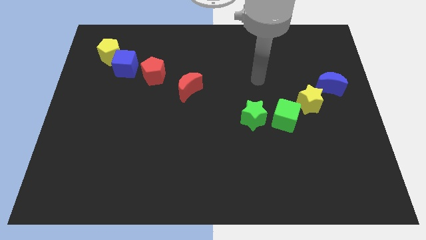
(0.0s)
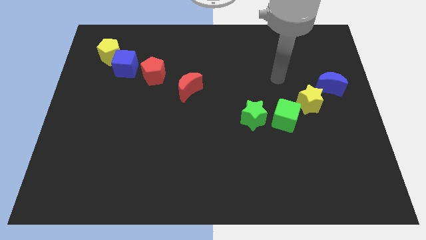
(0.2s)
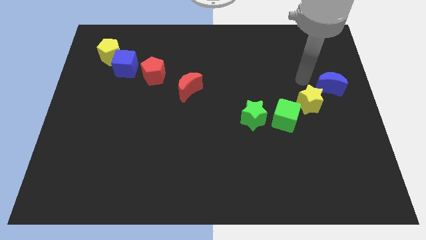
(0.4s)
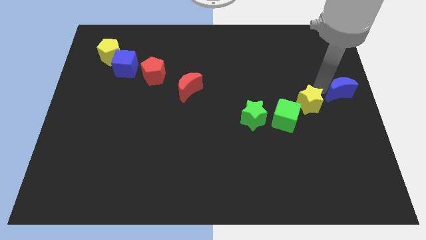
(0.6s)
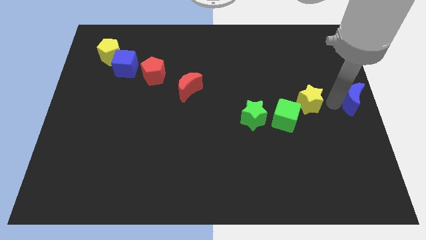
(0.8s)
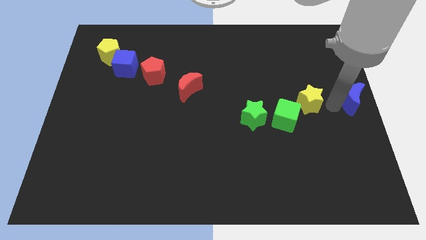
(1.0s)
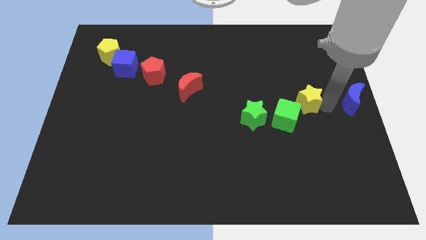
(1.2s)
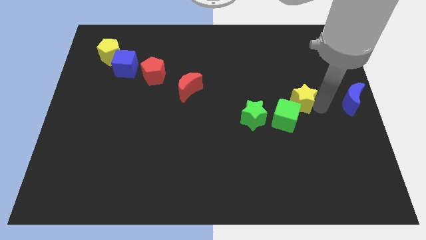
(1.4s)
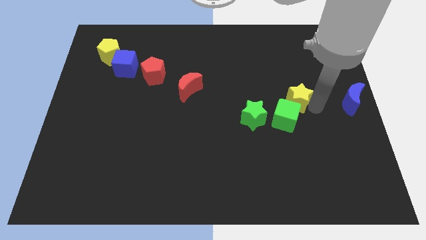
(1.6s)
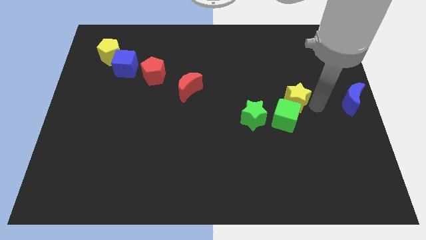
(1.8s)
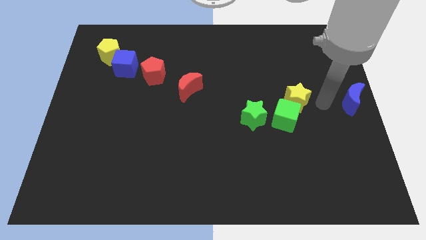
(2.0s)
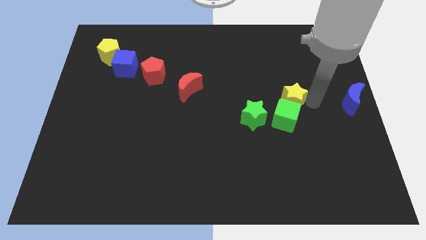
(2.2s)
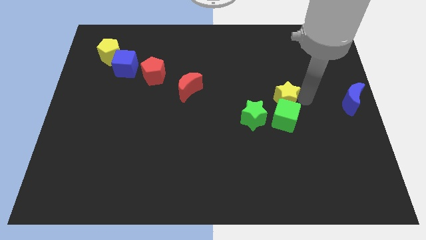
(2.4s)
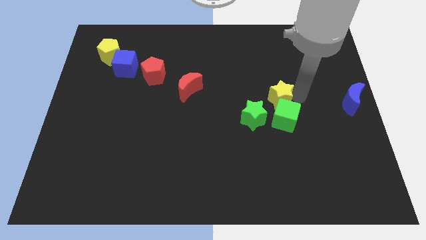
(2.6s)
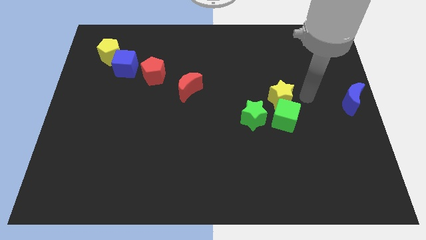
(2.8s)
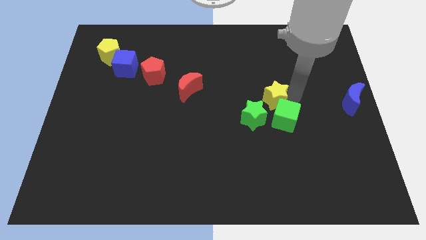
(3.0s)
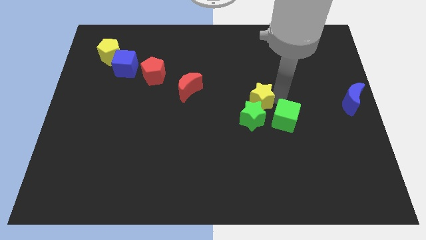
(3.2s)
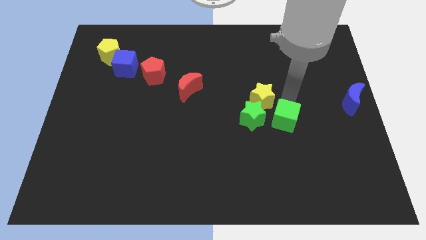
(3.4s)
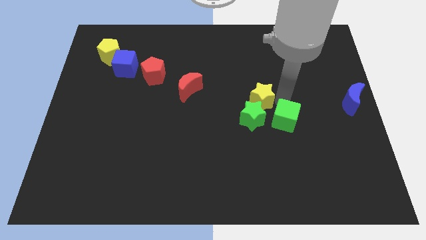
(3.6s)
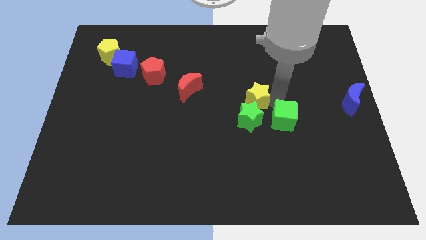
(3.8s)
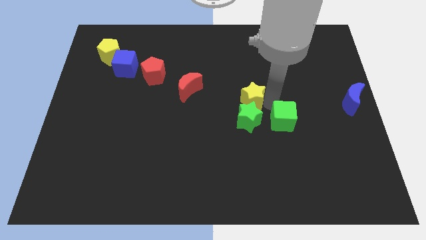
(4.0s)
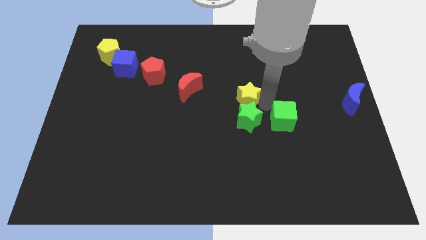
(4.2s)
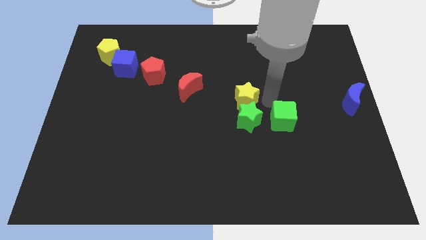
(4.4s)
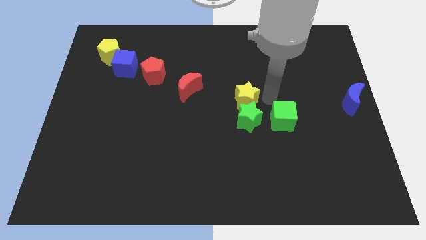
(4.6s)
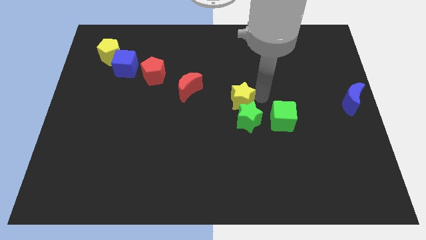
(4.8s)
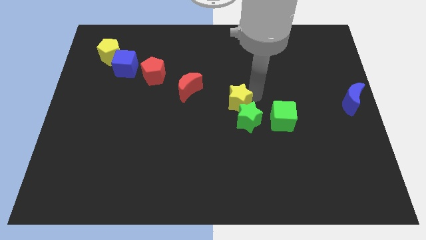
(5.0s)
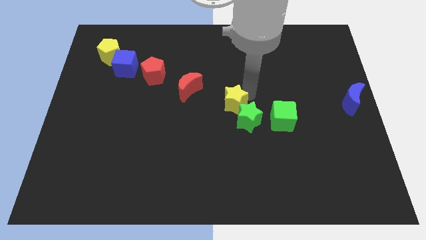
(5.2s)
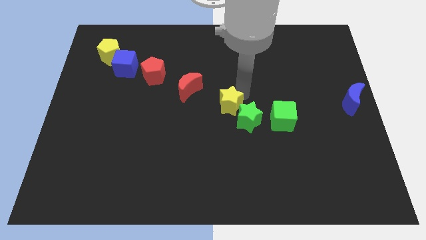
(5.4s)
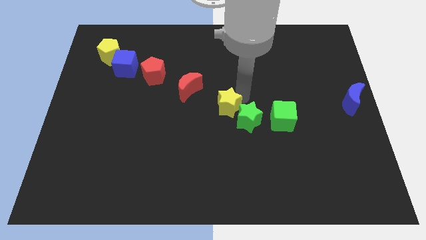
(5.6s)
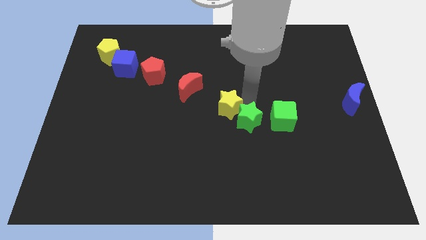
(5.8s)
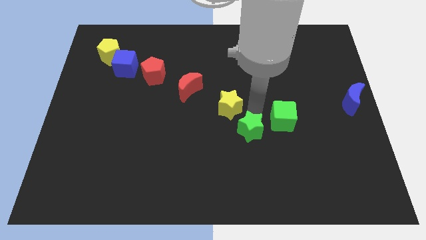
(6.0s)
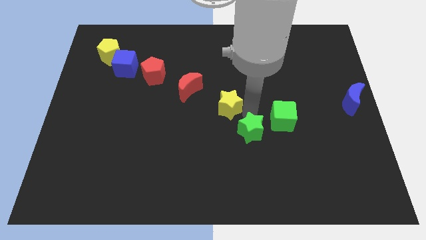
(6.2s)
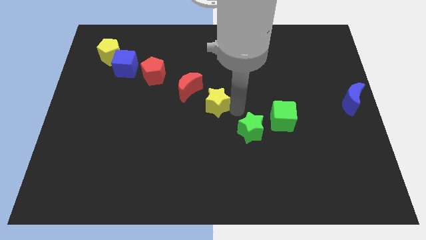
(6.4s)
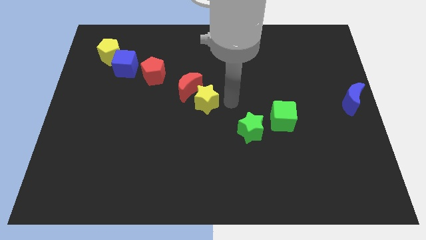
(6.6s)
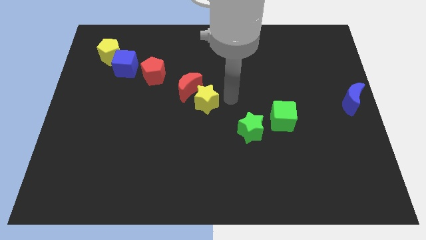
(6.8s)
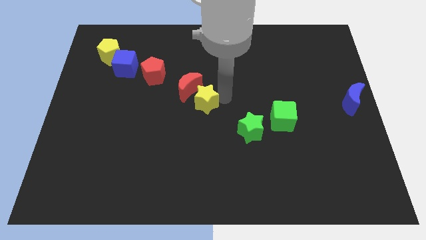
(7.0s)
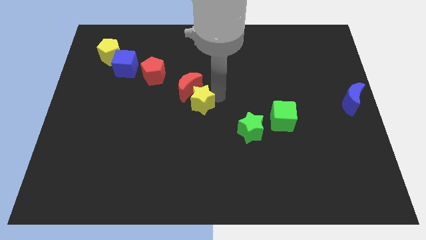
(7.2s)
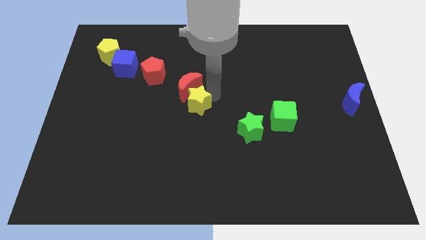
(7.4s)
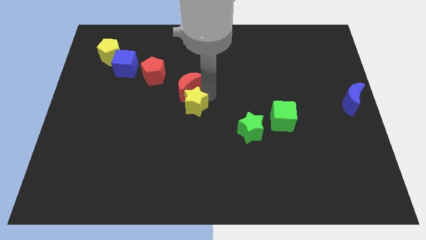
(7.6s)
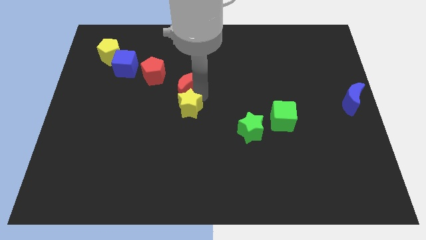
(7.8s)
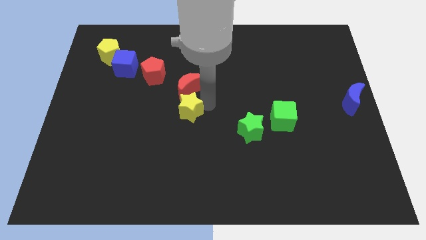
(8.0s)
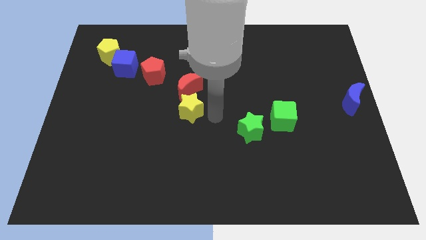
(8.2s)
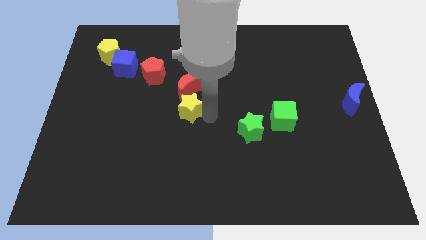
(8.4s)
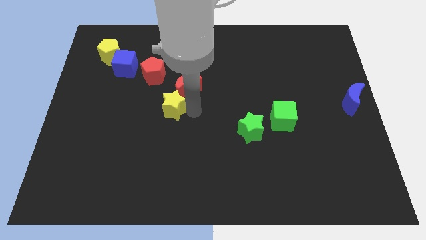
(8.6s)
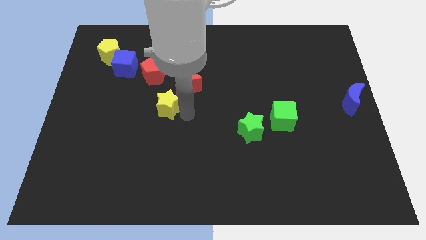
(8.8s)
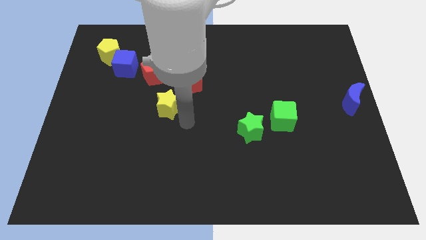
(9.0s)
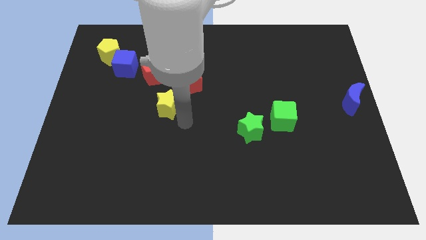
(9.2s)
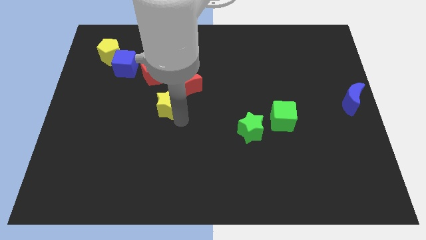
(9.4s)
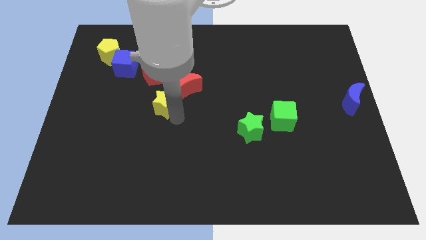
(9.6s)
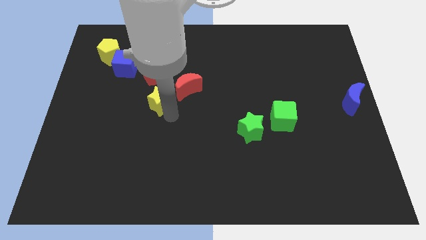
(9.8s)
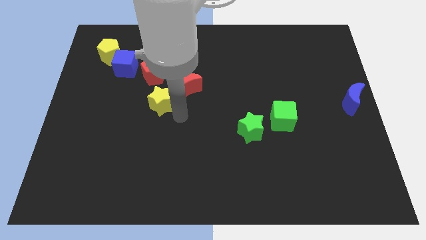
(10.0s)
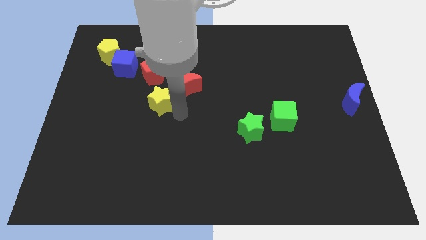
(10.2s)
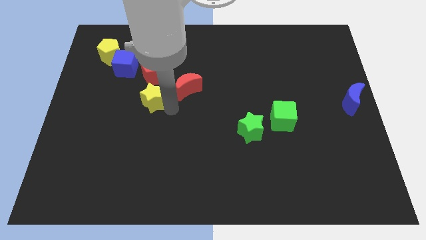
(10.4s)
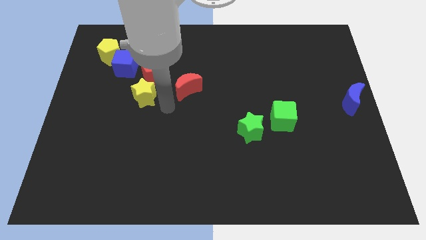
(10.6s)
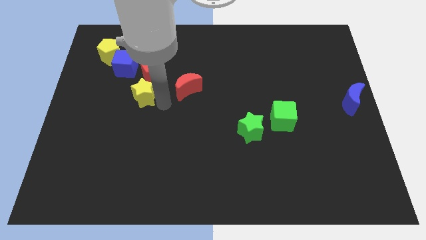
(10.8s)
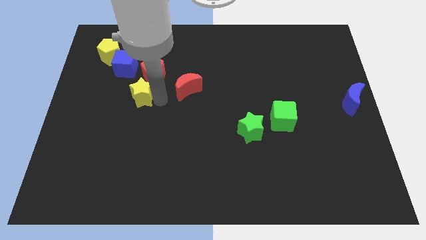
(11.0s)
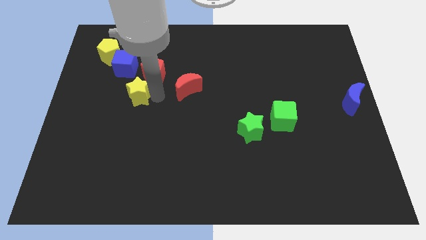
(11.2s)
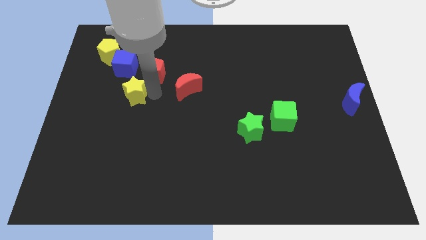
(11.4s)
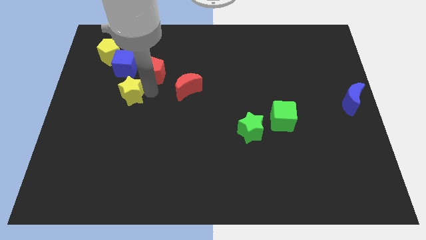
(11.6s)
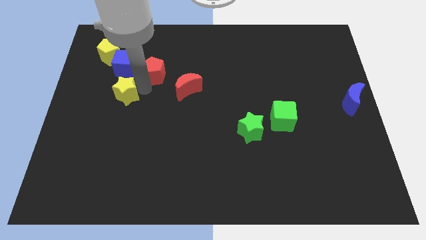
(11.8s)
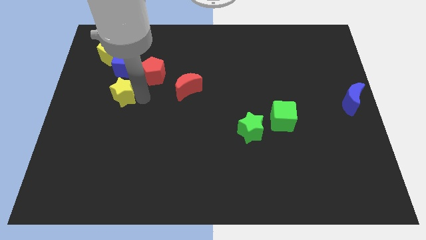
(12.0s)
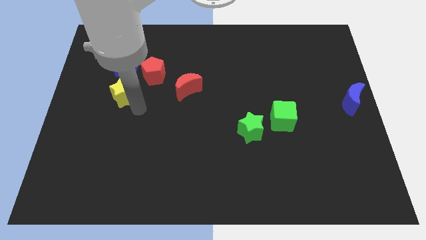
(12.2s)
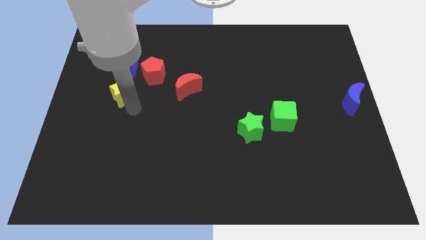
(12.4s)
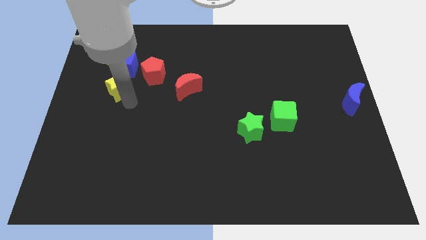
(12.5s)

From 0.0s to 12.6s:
move the yellow star to the left of the red pentagon

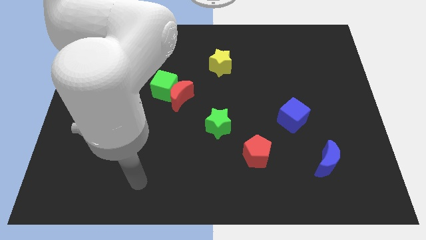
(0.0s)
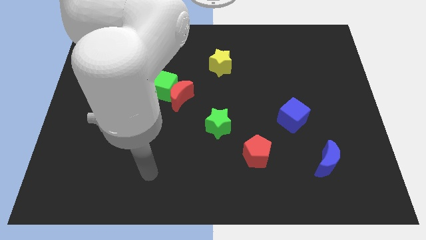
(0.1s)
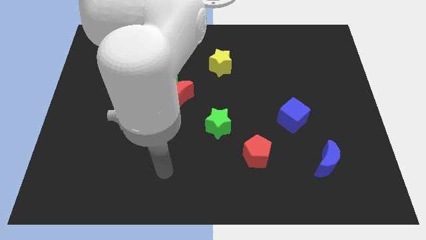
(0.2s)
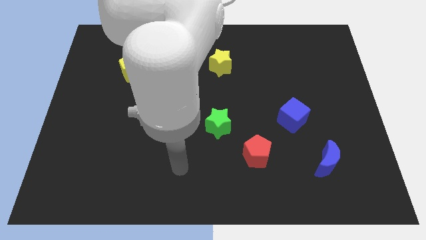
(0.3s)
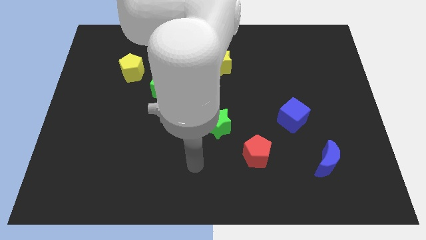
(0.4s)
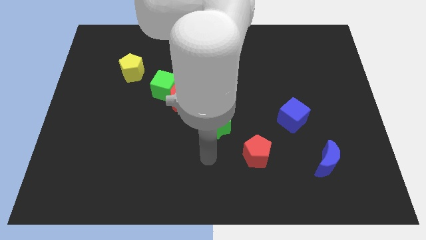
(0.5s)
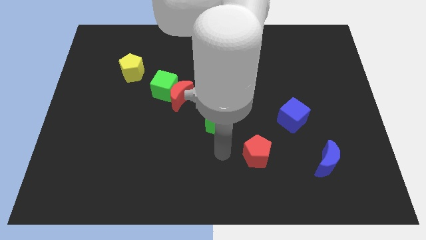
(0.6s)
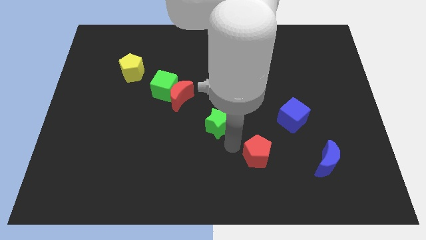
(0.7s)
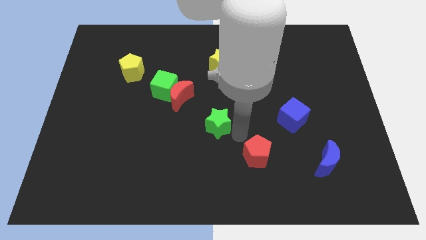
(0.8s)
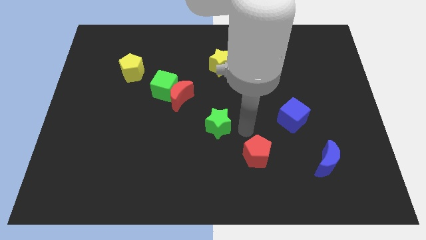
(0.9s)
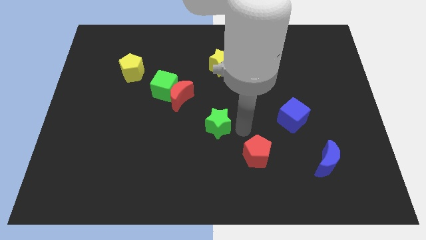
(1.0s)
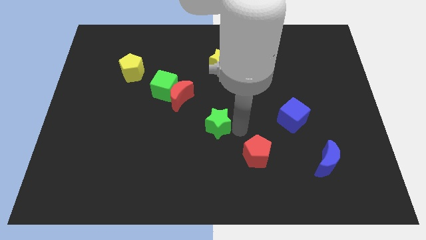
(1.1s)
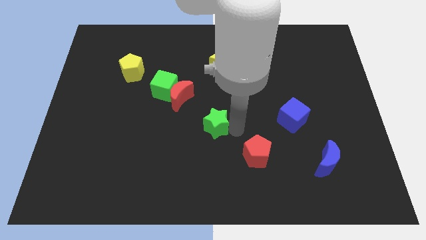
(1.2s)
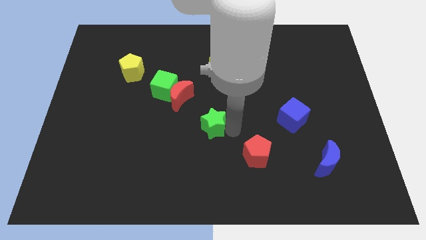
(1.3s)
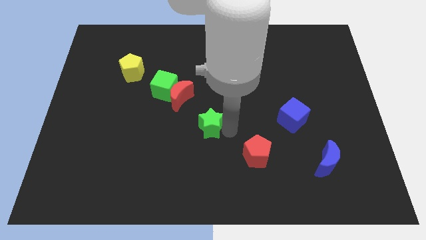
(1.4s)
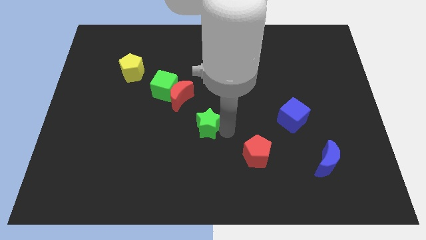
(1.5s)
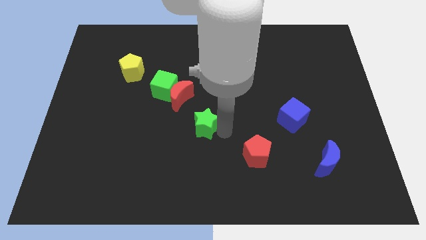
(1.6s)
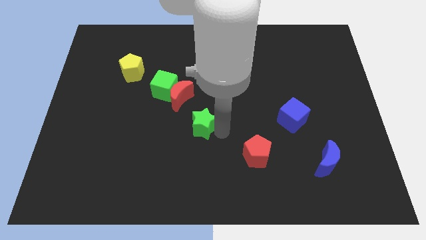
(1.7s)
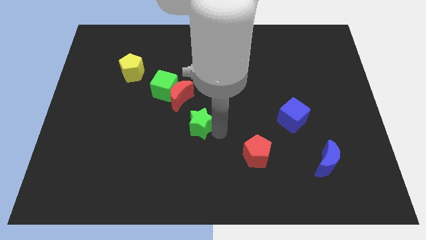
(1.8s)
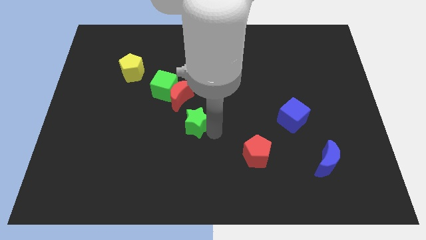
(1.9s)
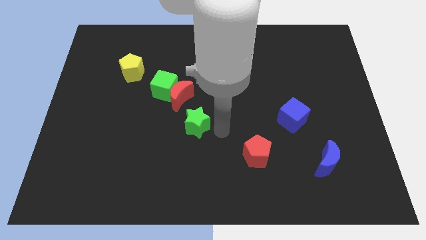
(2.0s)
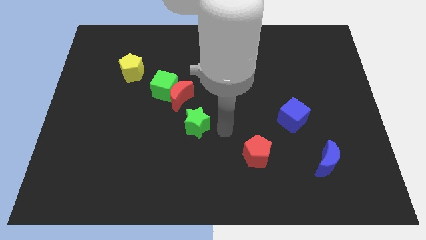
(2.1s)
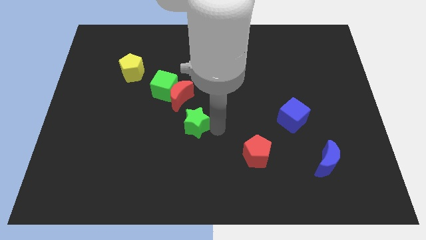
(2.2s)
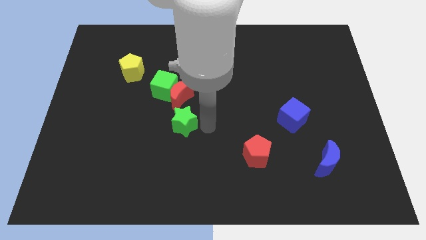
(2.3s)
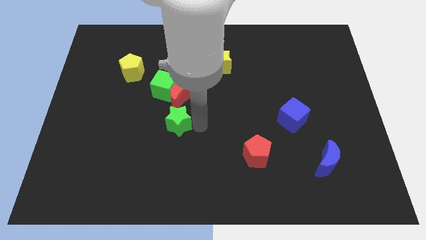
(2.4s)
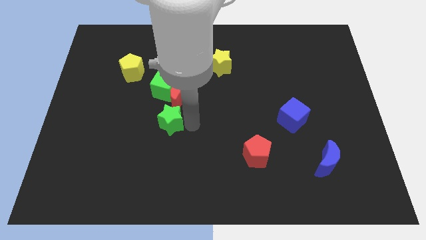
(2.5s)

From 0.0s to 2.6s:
move the green star to the bottom left side of the red moon
